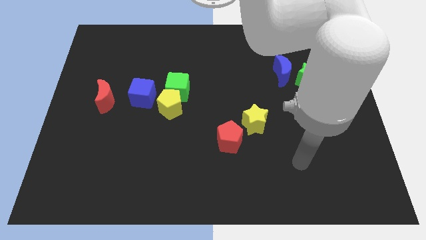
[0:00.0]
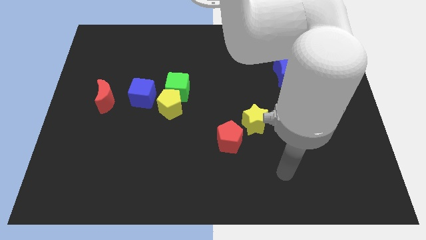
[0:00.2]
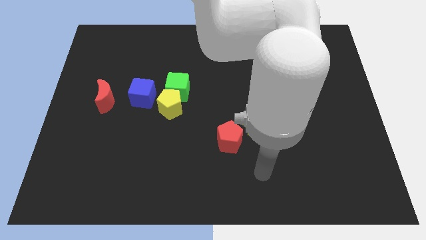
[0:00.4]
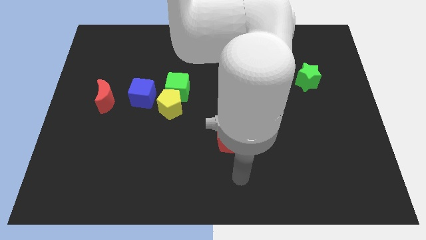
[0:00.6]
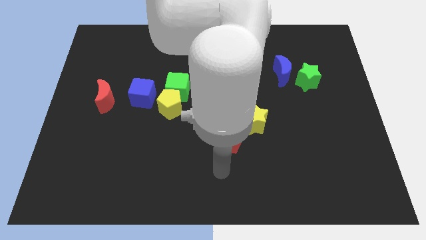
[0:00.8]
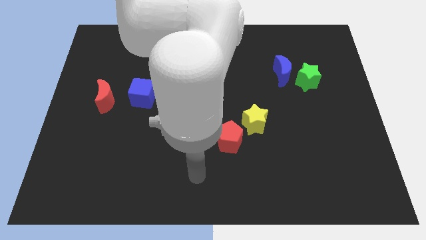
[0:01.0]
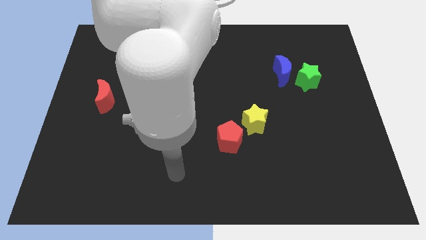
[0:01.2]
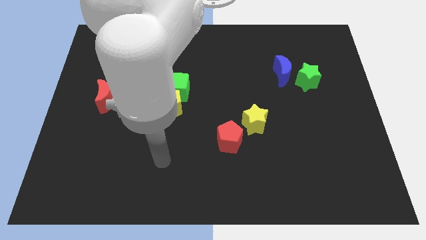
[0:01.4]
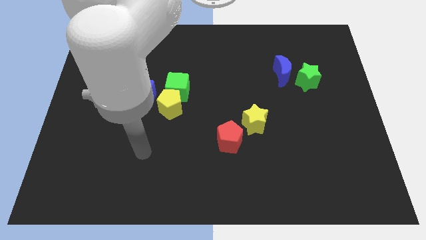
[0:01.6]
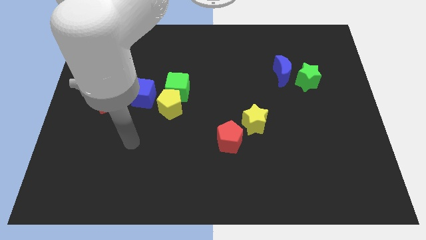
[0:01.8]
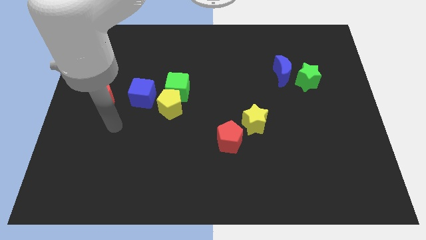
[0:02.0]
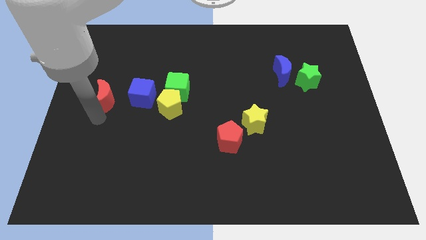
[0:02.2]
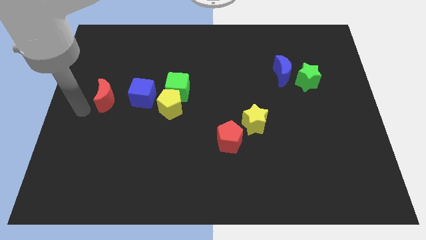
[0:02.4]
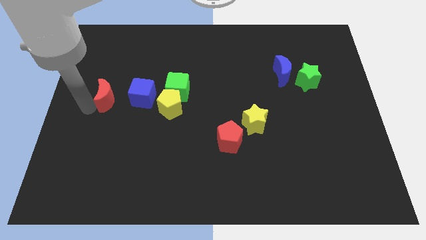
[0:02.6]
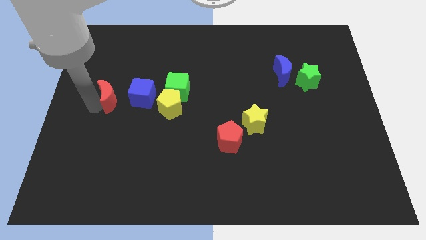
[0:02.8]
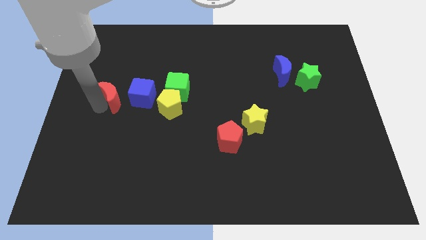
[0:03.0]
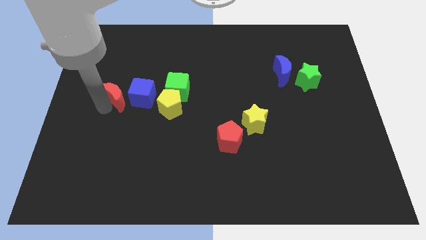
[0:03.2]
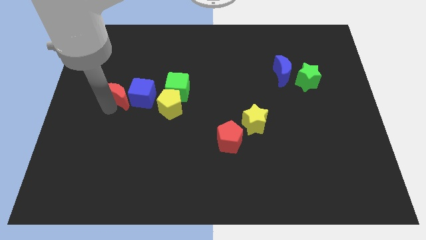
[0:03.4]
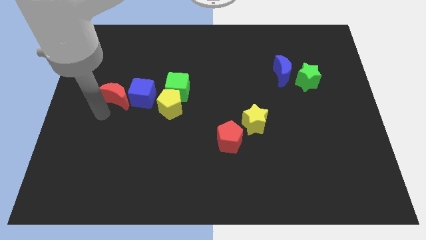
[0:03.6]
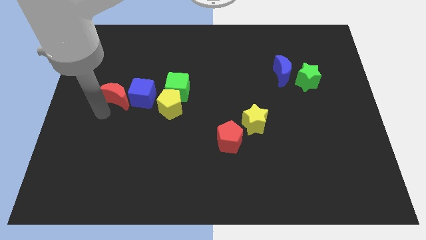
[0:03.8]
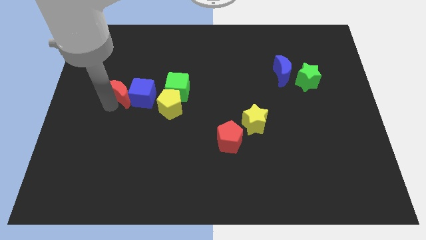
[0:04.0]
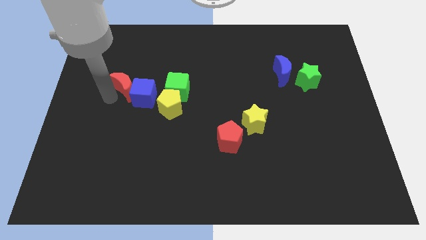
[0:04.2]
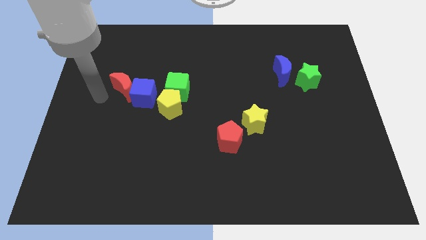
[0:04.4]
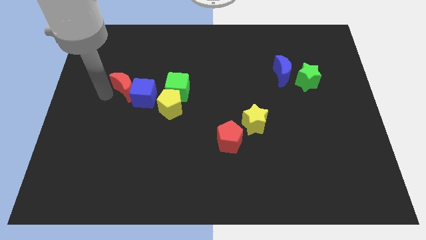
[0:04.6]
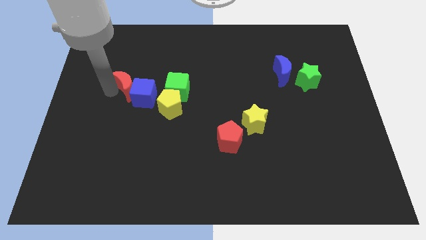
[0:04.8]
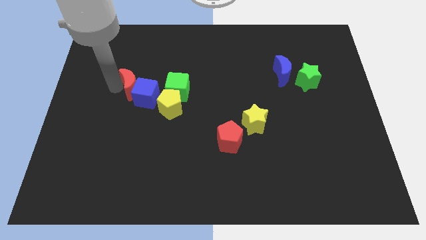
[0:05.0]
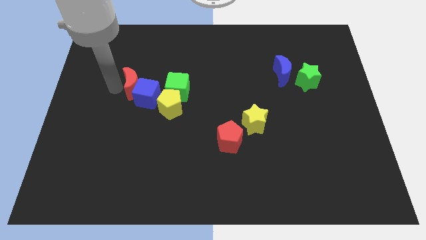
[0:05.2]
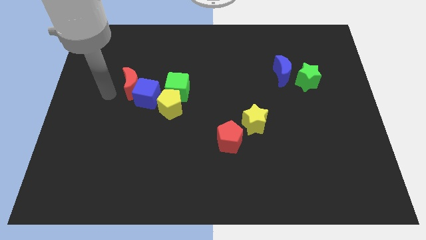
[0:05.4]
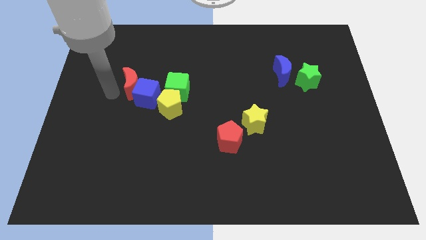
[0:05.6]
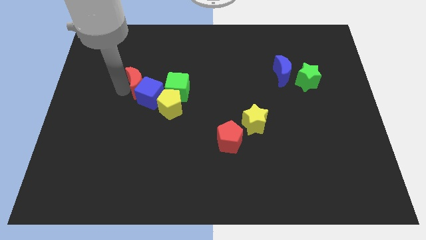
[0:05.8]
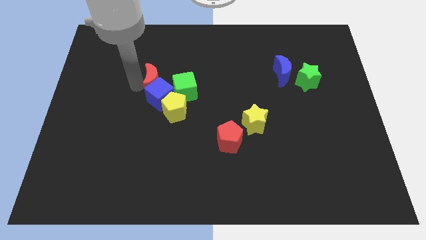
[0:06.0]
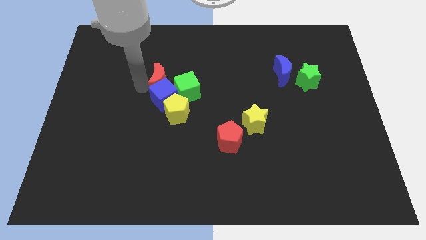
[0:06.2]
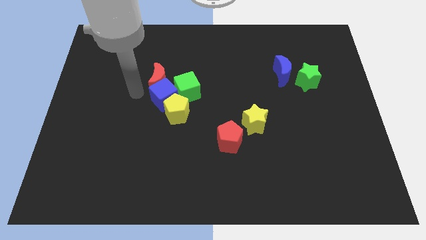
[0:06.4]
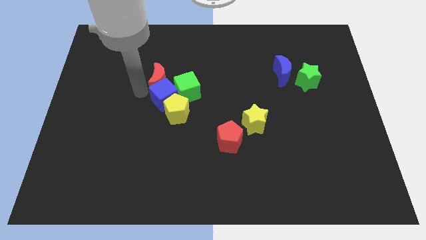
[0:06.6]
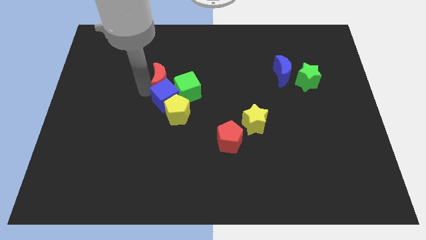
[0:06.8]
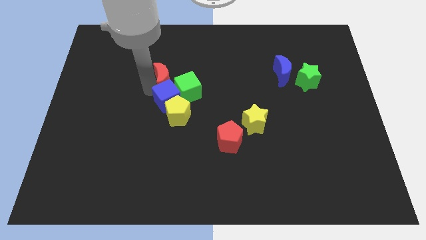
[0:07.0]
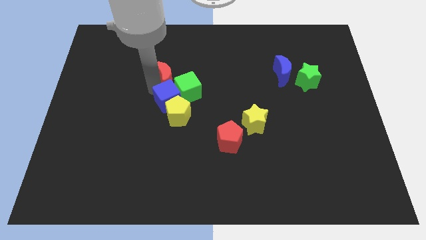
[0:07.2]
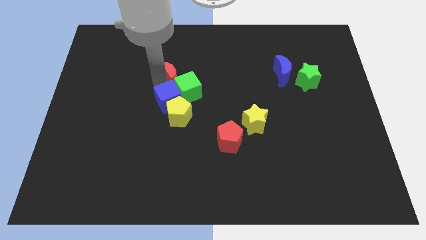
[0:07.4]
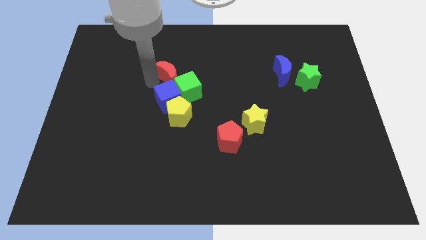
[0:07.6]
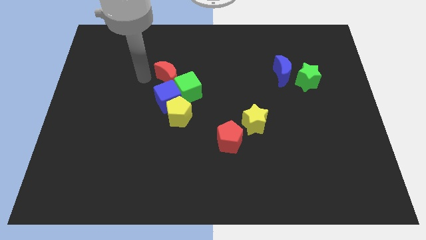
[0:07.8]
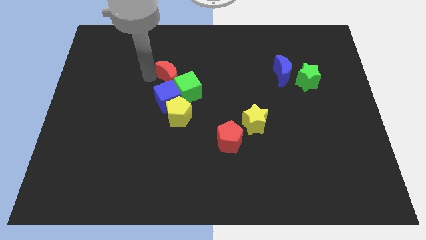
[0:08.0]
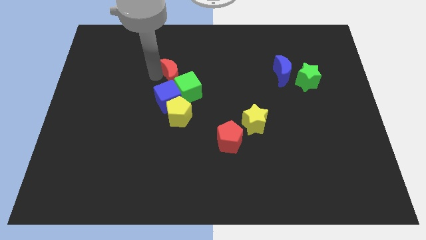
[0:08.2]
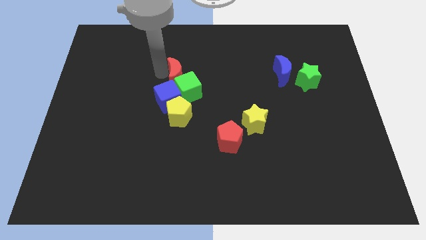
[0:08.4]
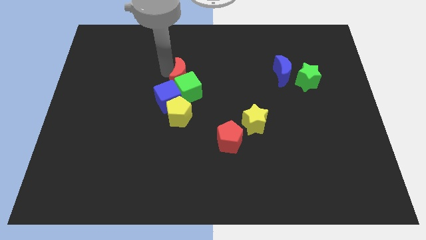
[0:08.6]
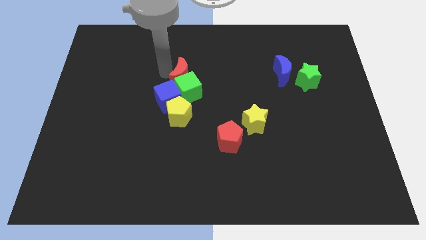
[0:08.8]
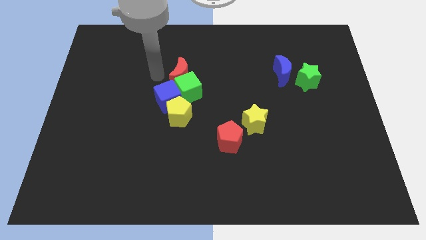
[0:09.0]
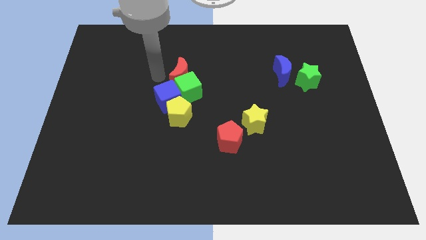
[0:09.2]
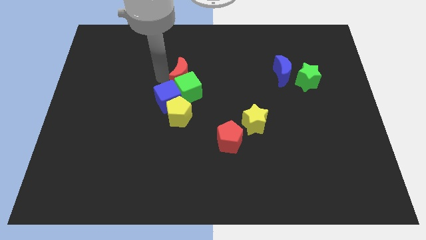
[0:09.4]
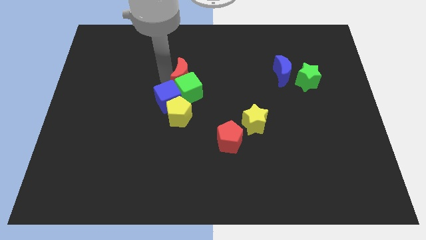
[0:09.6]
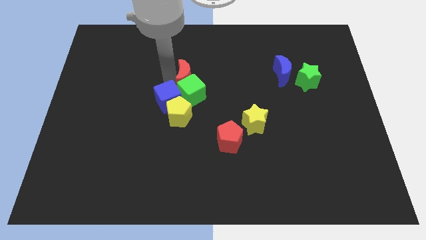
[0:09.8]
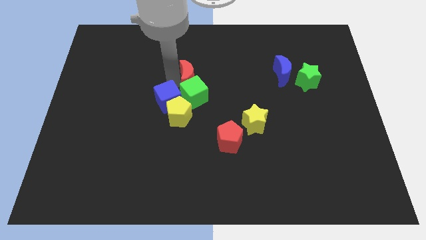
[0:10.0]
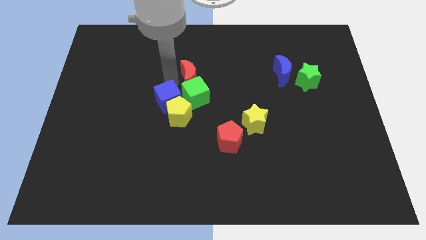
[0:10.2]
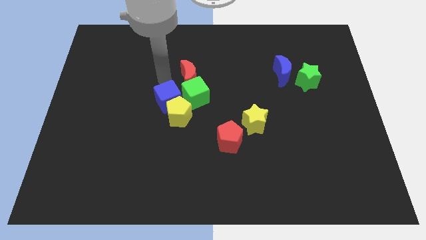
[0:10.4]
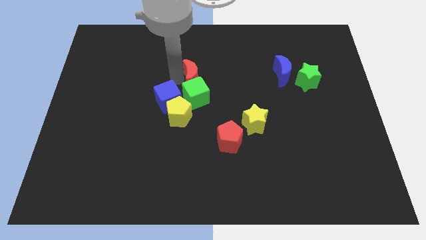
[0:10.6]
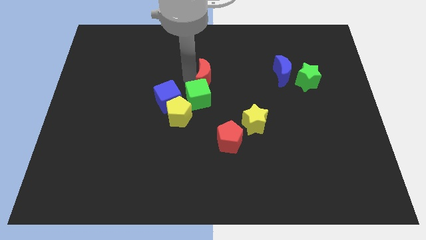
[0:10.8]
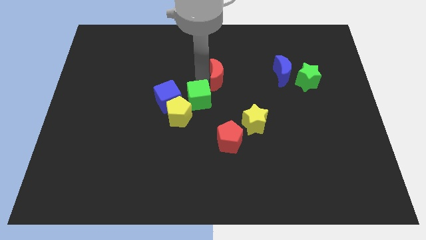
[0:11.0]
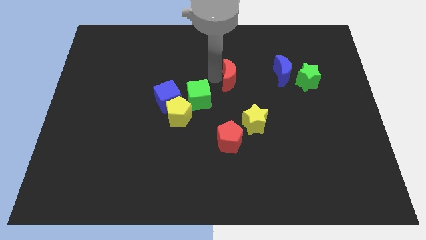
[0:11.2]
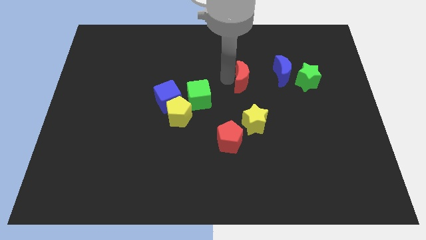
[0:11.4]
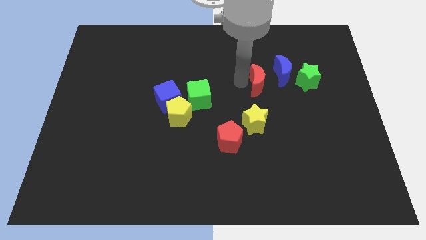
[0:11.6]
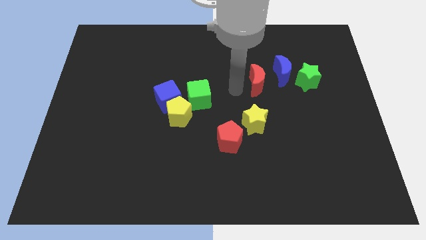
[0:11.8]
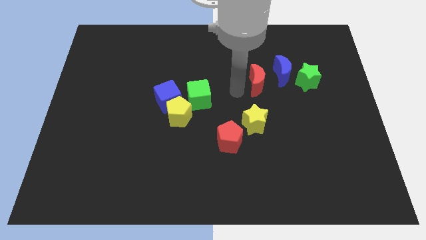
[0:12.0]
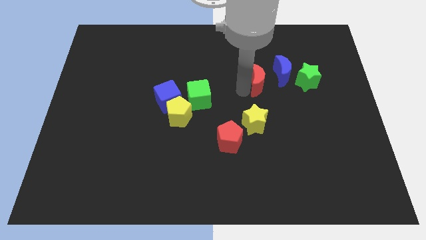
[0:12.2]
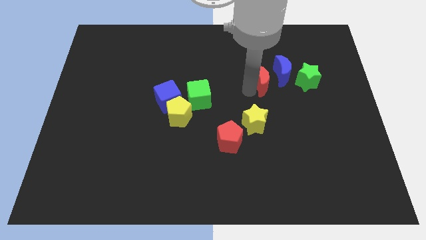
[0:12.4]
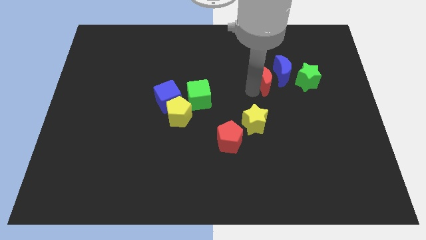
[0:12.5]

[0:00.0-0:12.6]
push the red moon to the blue moon

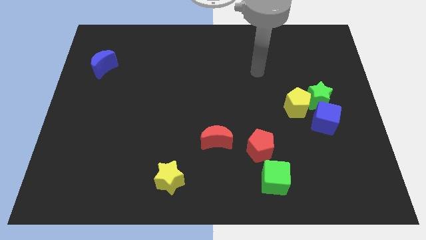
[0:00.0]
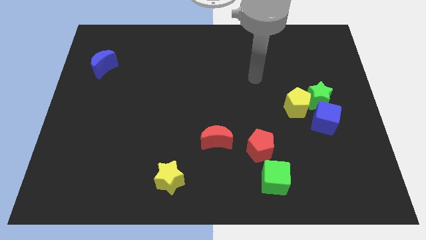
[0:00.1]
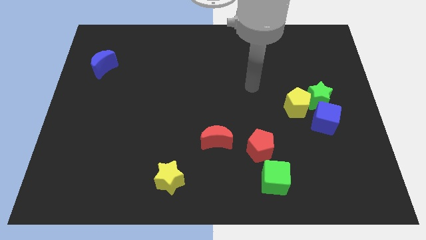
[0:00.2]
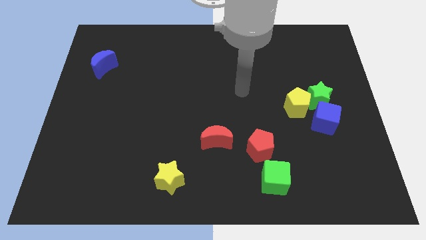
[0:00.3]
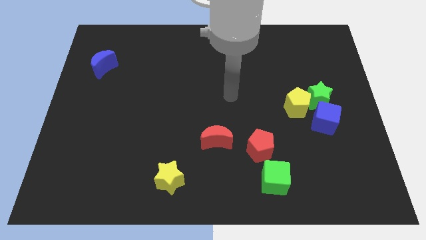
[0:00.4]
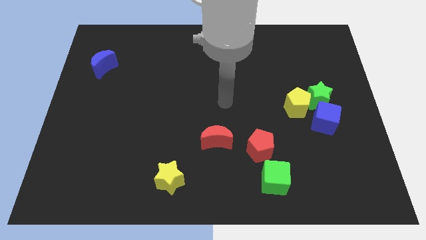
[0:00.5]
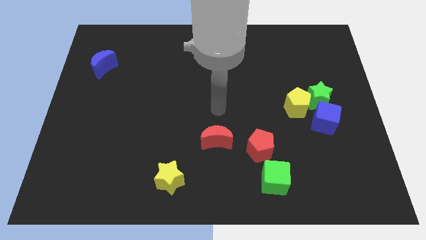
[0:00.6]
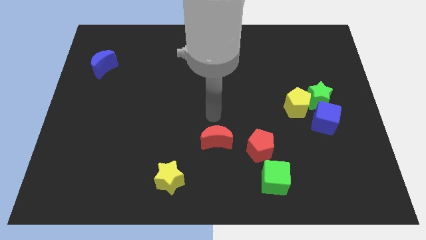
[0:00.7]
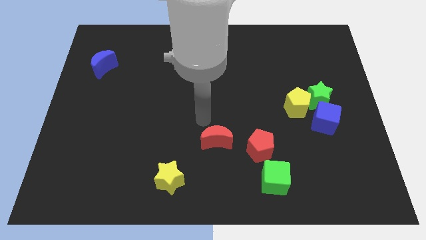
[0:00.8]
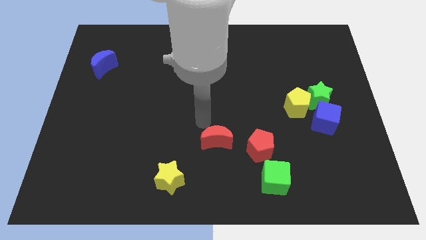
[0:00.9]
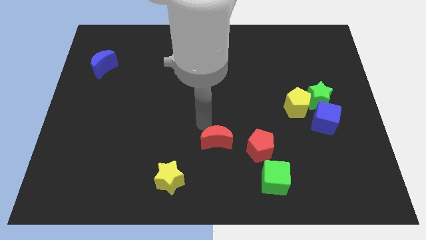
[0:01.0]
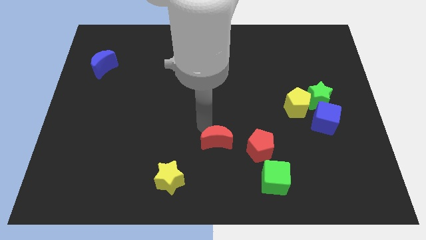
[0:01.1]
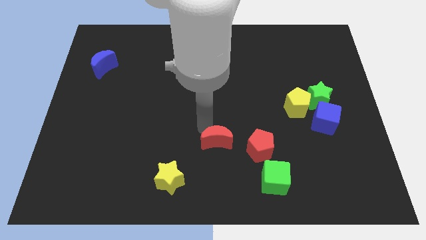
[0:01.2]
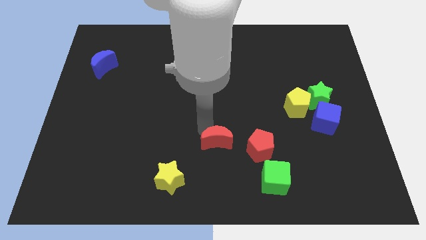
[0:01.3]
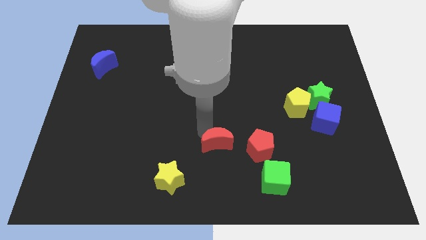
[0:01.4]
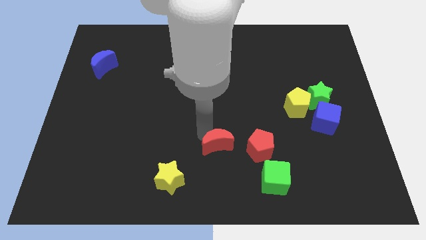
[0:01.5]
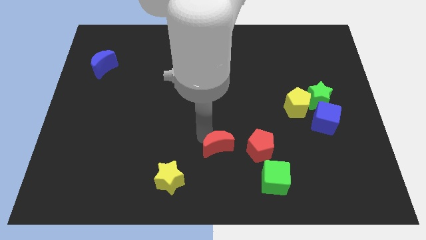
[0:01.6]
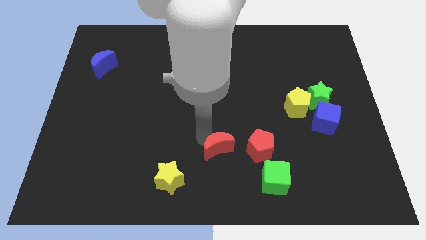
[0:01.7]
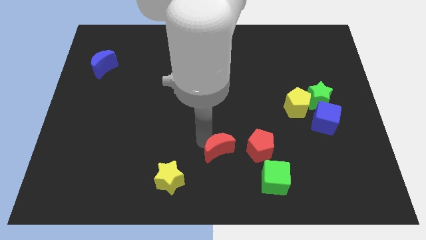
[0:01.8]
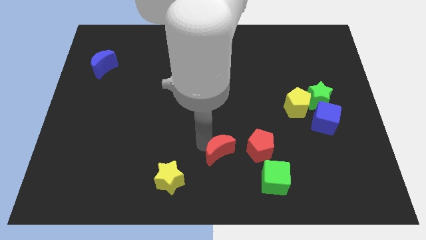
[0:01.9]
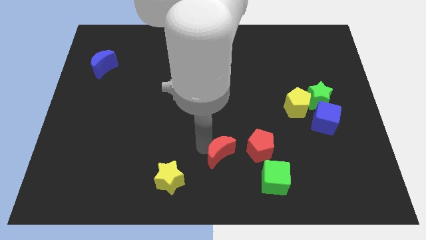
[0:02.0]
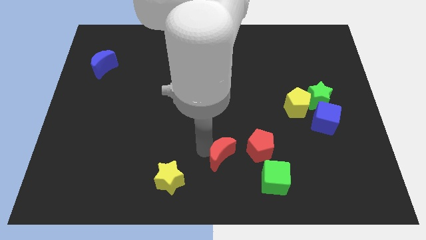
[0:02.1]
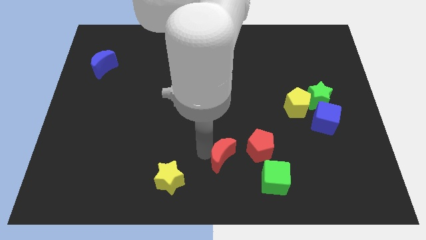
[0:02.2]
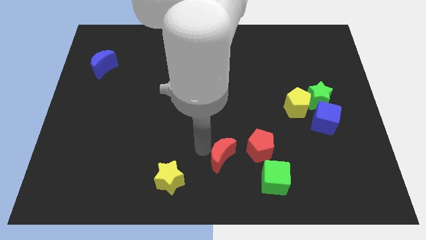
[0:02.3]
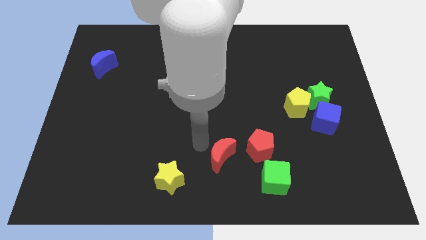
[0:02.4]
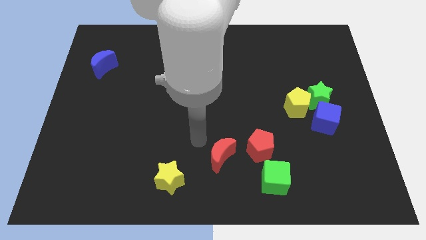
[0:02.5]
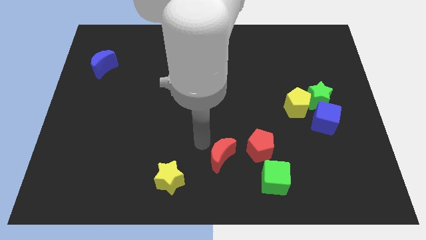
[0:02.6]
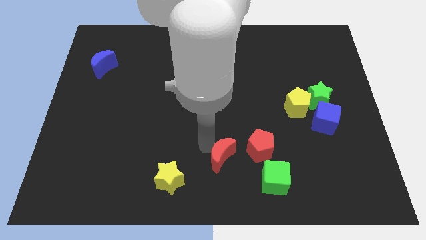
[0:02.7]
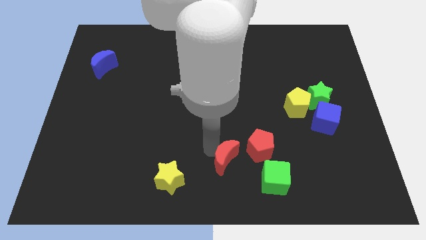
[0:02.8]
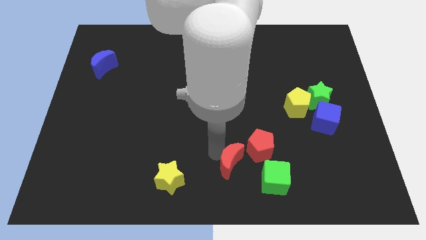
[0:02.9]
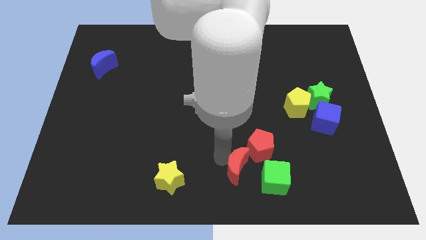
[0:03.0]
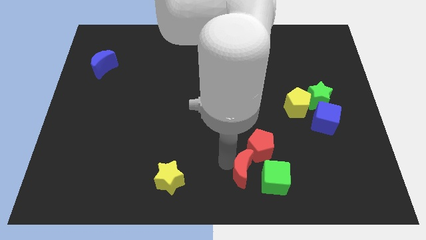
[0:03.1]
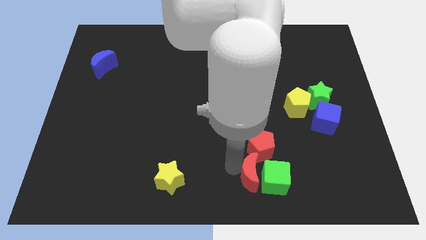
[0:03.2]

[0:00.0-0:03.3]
put the red moon close to the green cube
